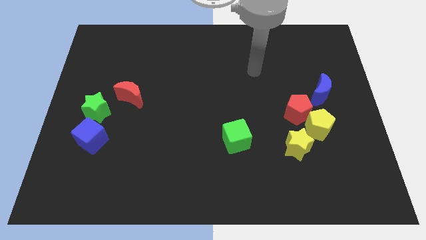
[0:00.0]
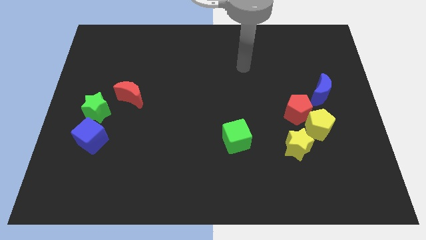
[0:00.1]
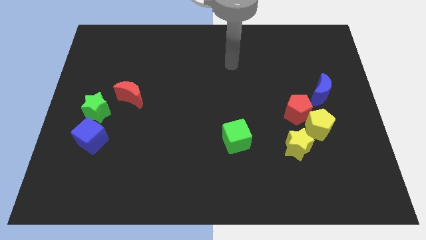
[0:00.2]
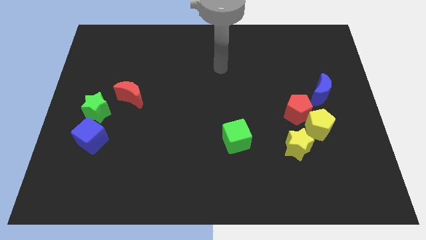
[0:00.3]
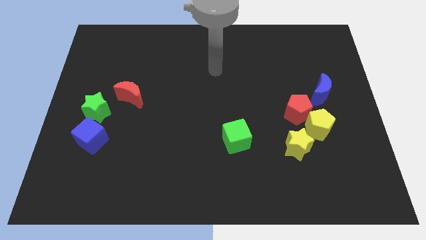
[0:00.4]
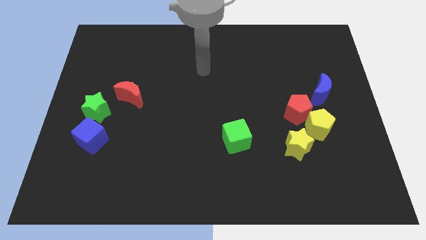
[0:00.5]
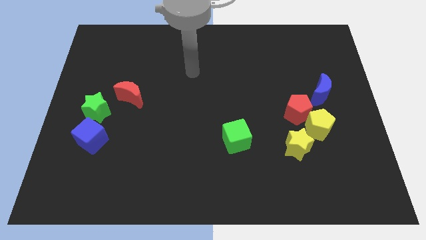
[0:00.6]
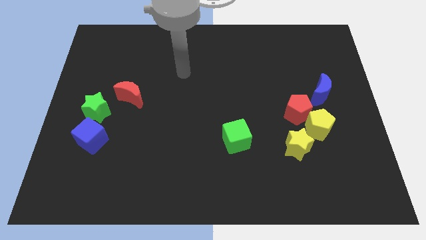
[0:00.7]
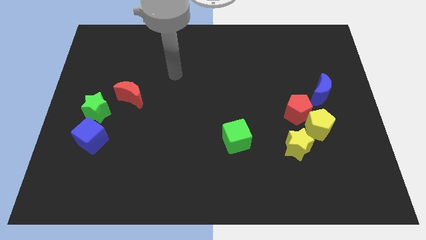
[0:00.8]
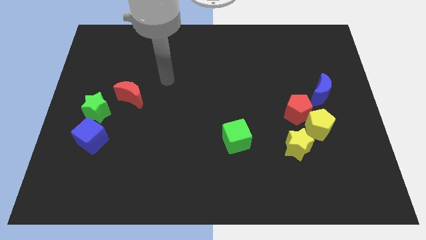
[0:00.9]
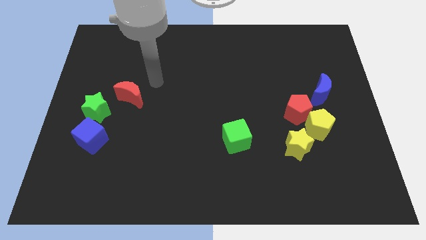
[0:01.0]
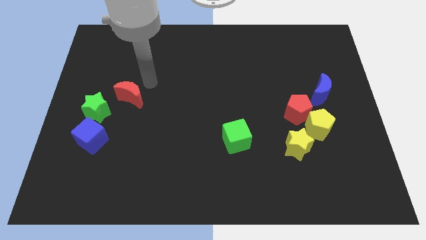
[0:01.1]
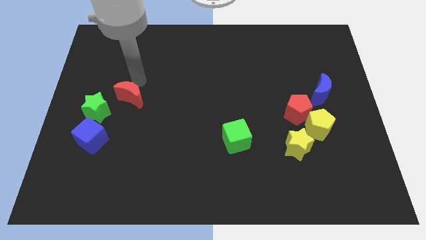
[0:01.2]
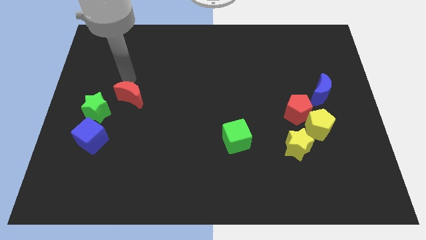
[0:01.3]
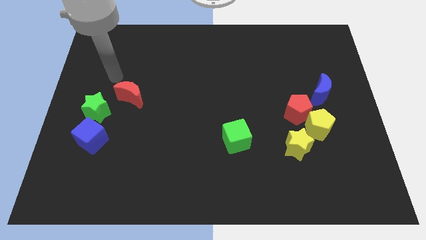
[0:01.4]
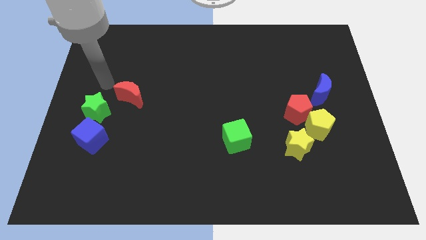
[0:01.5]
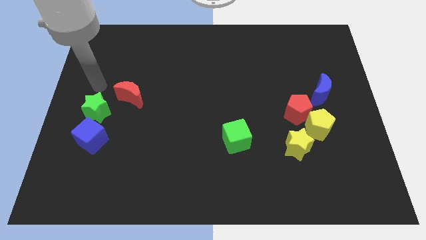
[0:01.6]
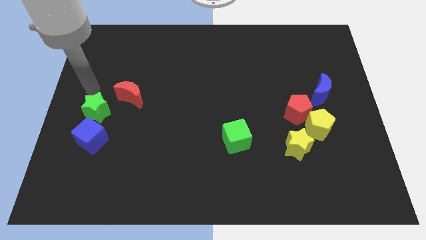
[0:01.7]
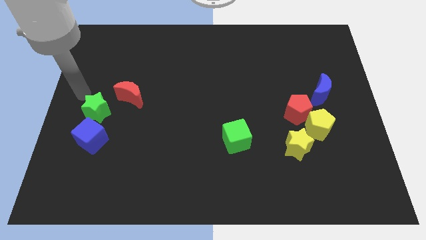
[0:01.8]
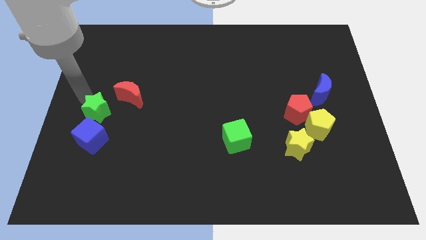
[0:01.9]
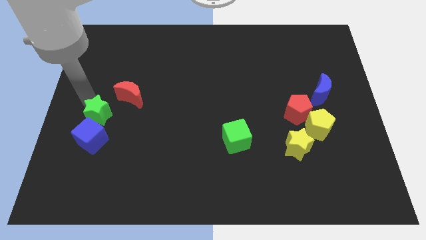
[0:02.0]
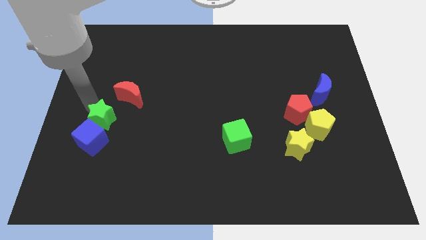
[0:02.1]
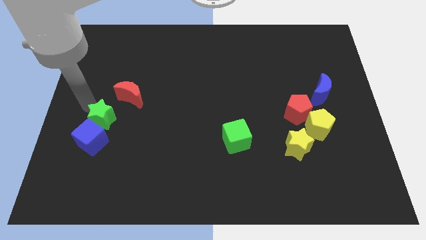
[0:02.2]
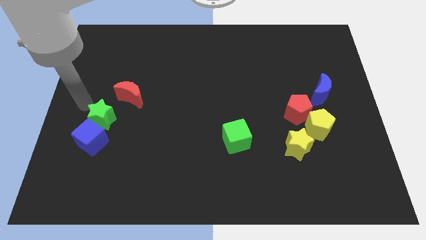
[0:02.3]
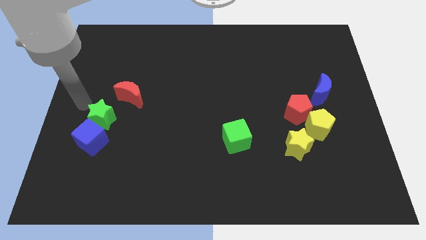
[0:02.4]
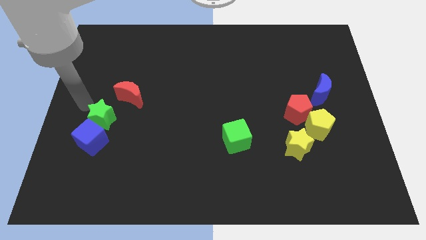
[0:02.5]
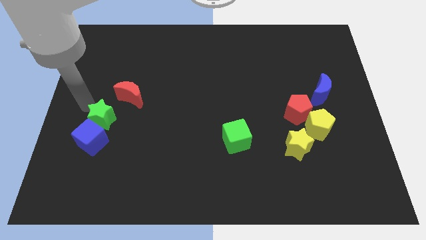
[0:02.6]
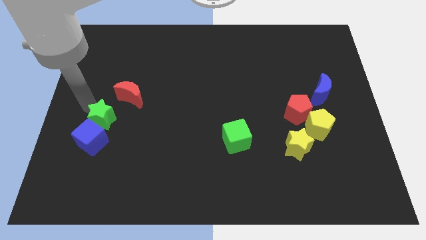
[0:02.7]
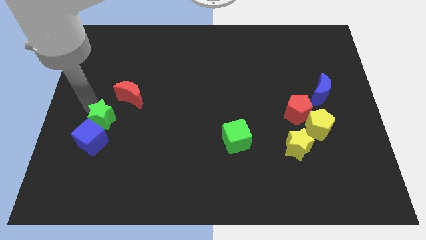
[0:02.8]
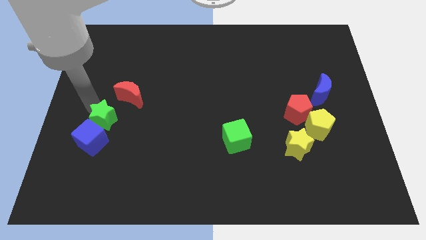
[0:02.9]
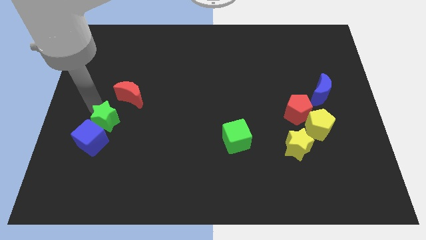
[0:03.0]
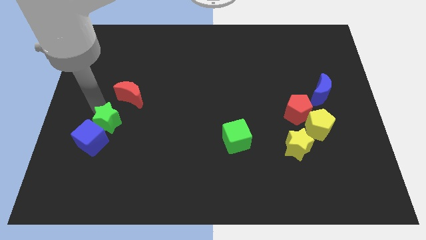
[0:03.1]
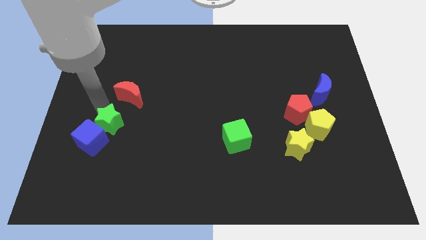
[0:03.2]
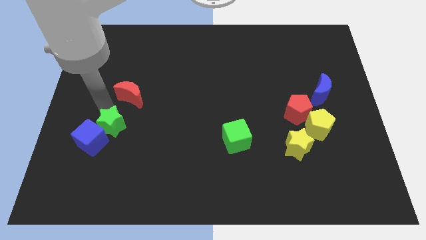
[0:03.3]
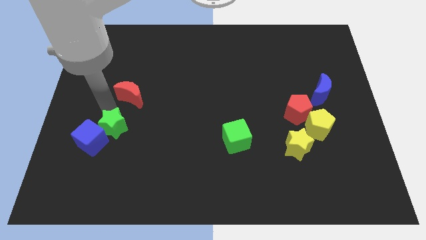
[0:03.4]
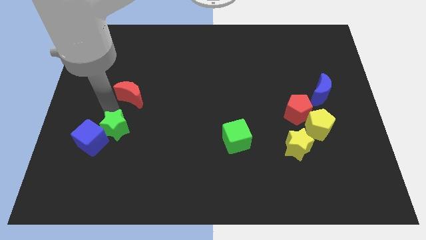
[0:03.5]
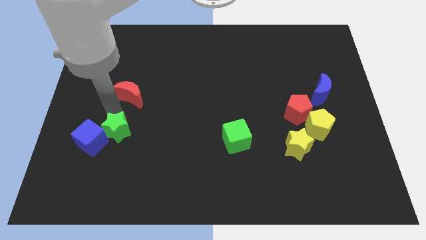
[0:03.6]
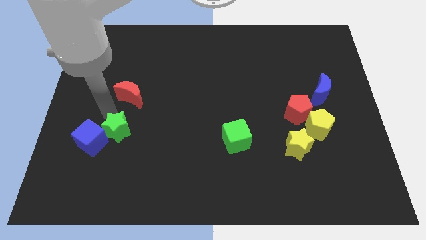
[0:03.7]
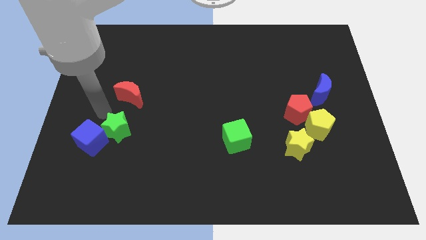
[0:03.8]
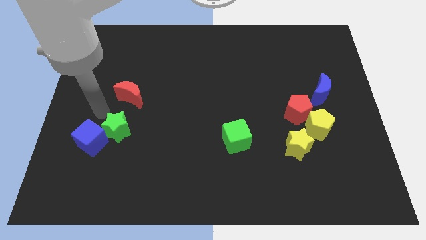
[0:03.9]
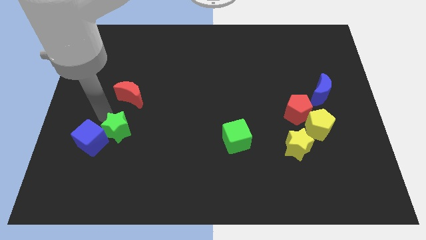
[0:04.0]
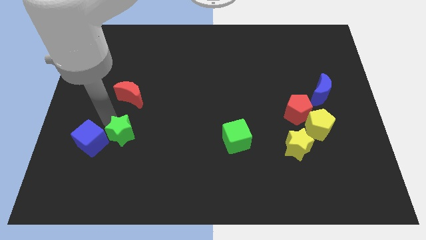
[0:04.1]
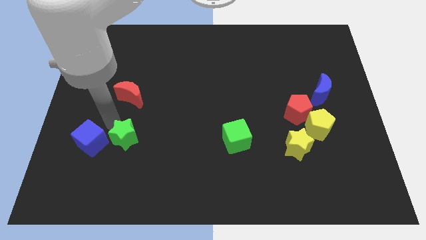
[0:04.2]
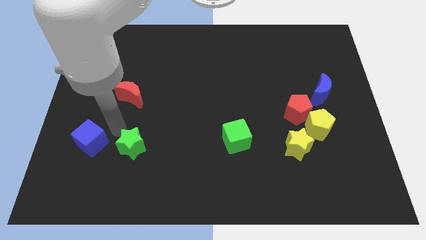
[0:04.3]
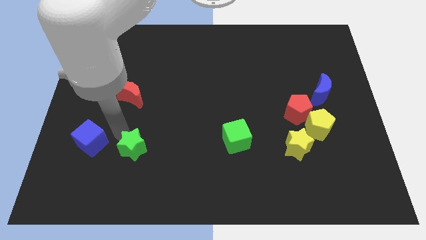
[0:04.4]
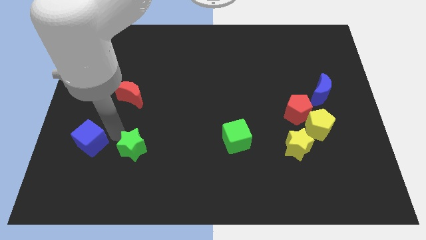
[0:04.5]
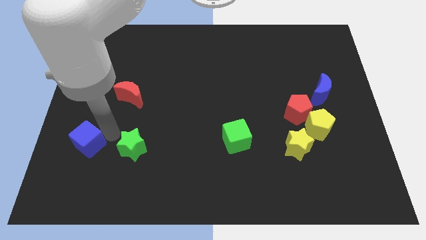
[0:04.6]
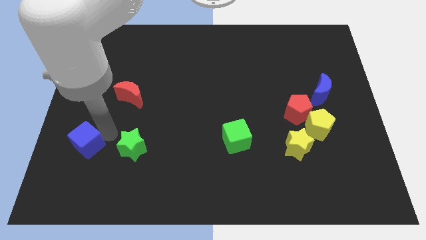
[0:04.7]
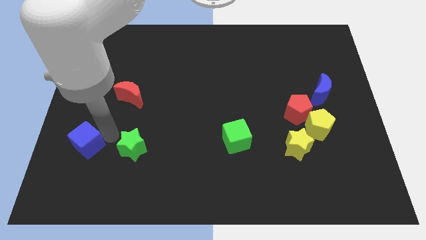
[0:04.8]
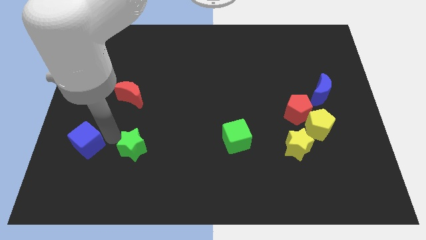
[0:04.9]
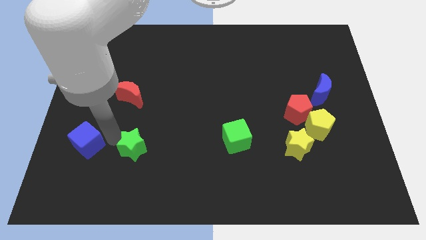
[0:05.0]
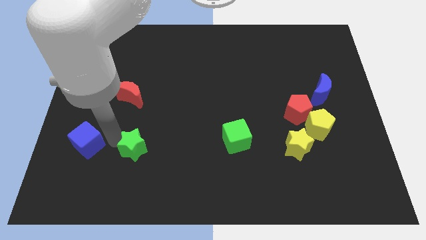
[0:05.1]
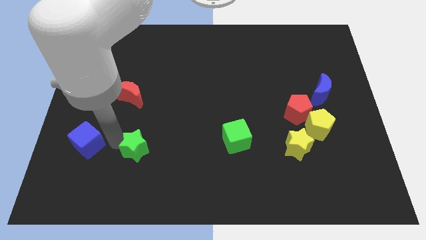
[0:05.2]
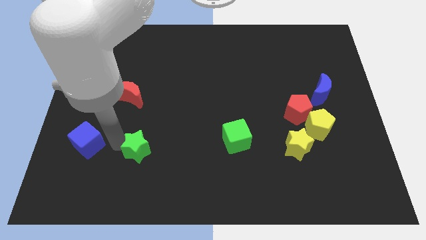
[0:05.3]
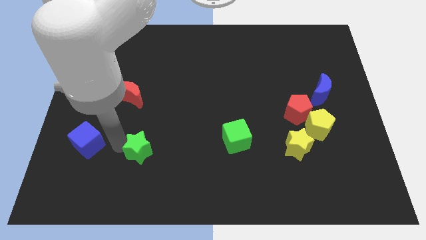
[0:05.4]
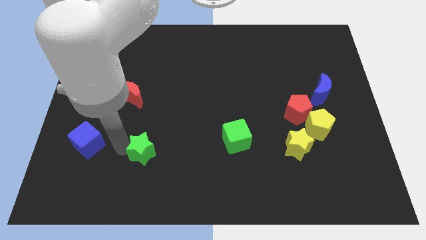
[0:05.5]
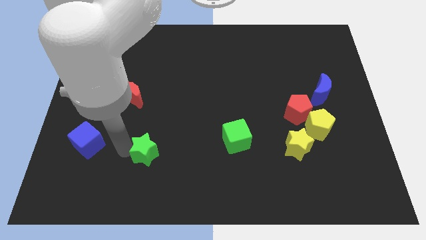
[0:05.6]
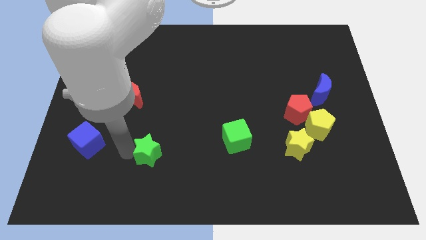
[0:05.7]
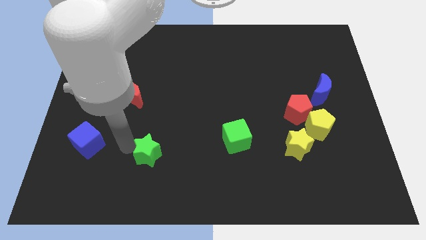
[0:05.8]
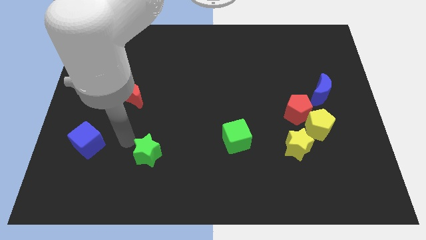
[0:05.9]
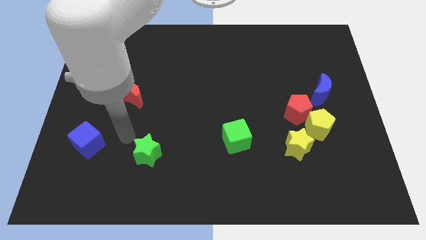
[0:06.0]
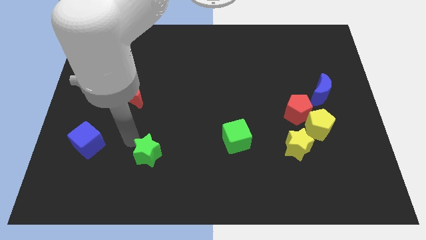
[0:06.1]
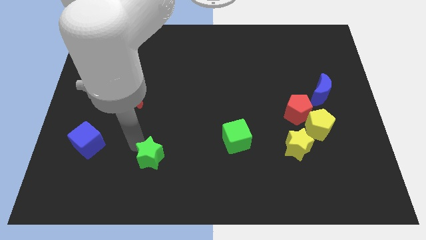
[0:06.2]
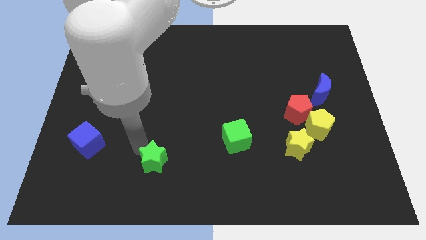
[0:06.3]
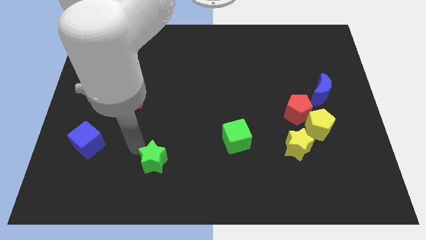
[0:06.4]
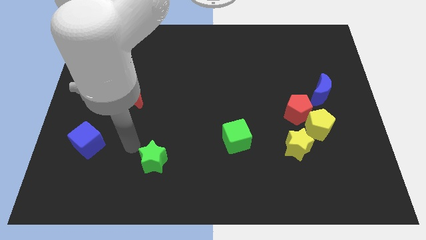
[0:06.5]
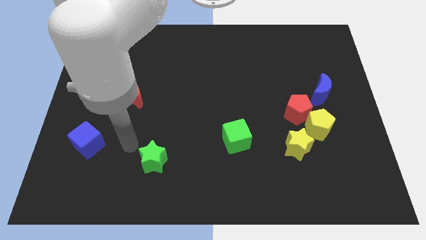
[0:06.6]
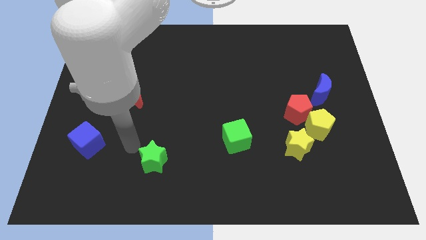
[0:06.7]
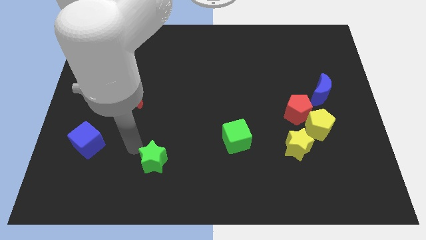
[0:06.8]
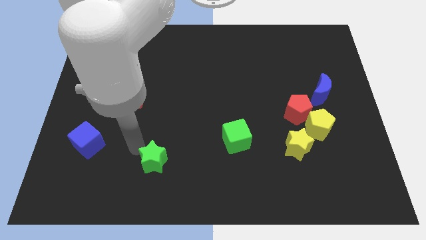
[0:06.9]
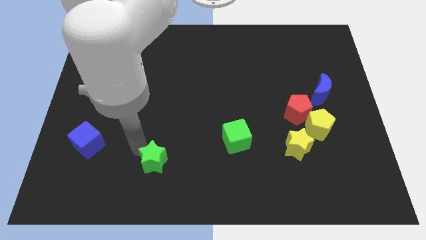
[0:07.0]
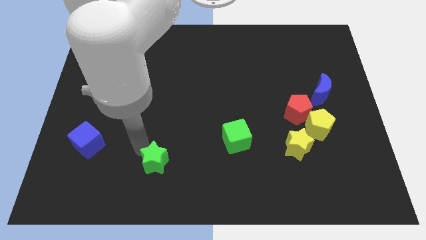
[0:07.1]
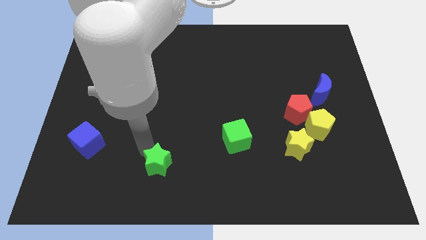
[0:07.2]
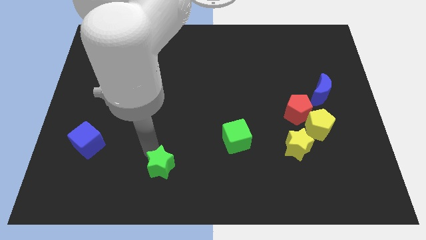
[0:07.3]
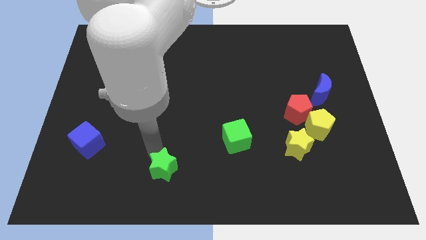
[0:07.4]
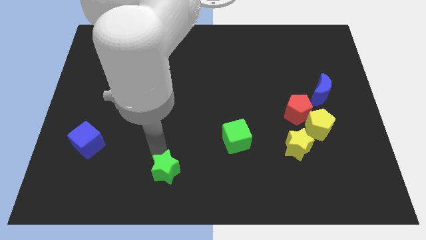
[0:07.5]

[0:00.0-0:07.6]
push the green star to the bottom side
